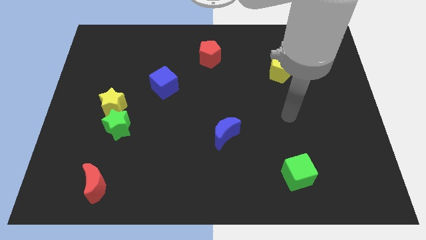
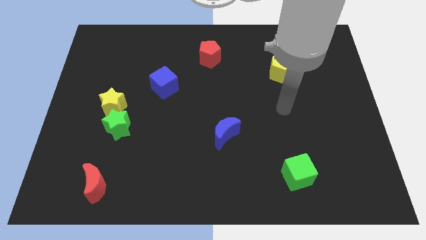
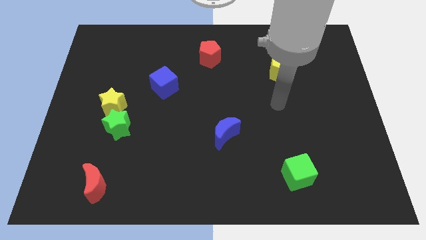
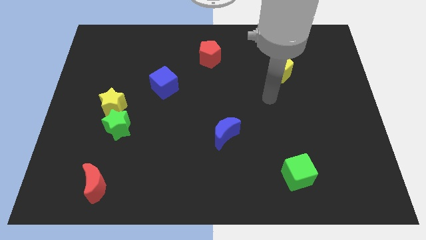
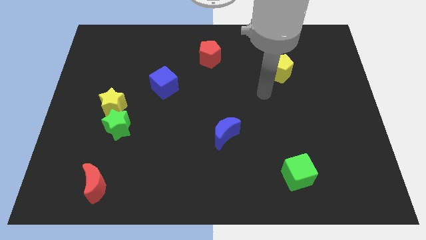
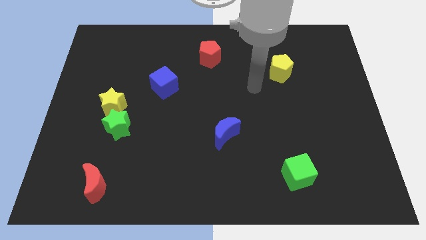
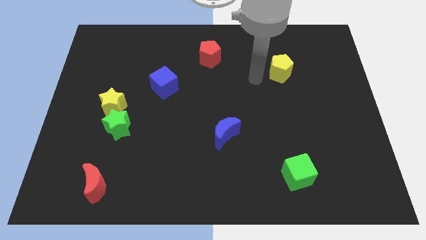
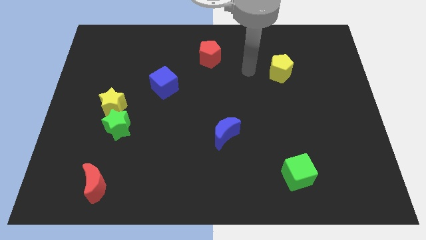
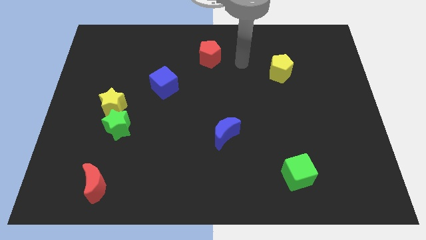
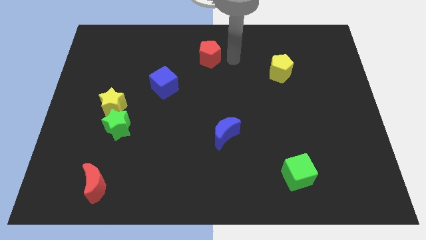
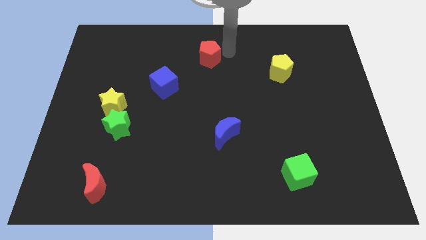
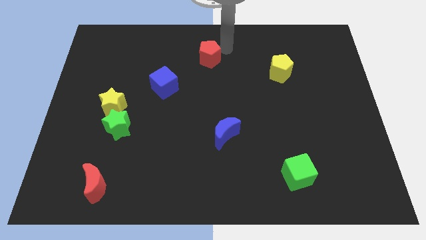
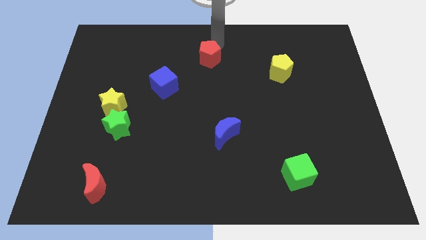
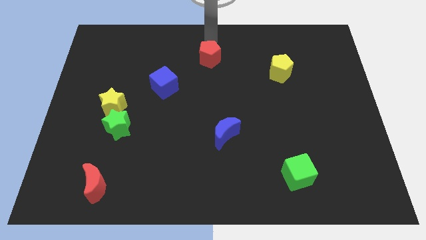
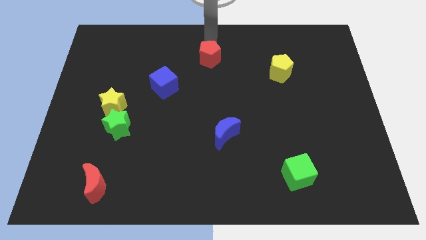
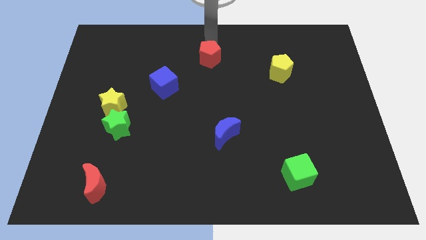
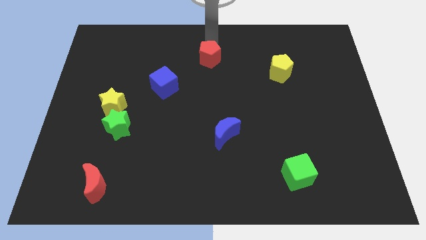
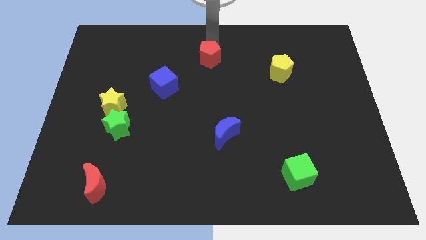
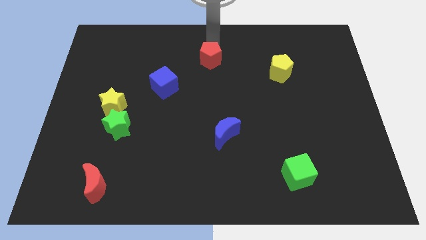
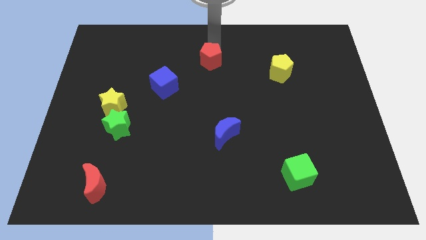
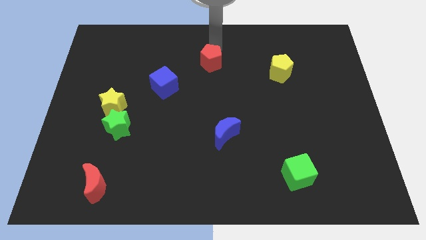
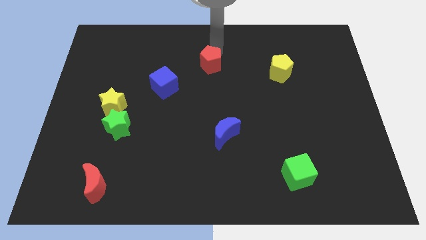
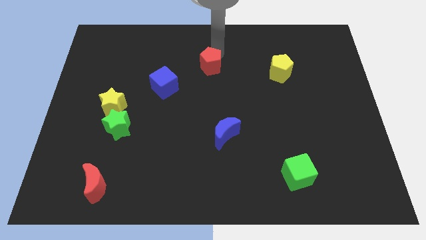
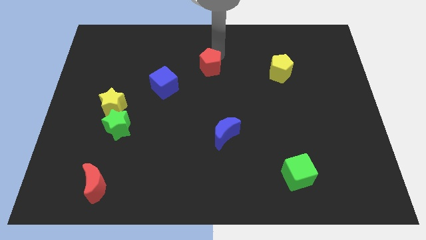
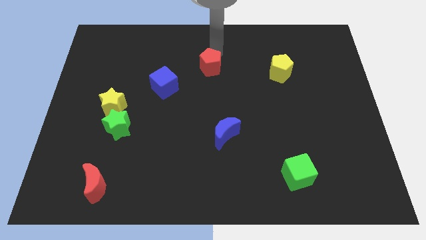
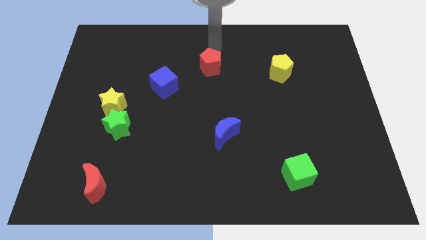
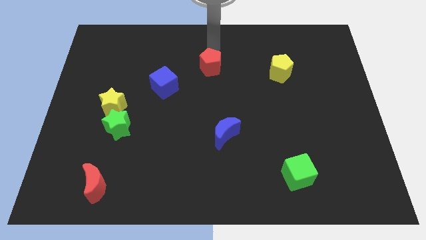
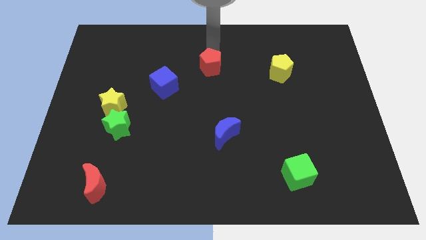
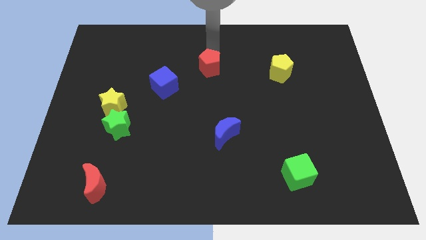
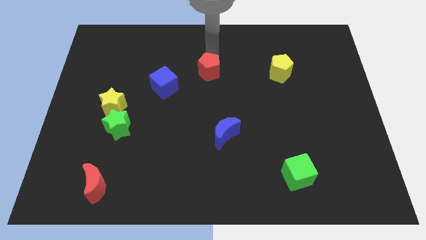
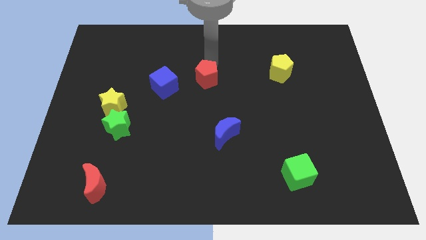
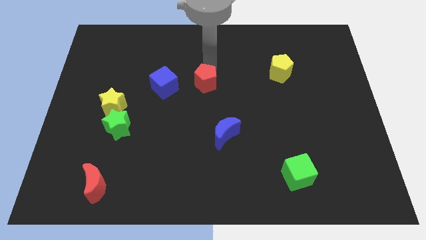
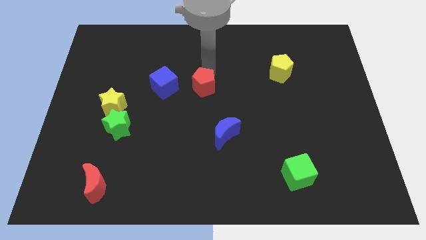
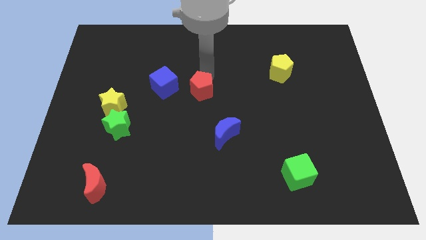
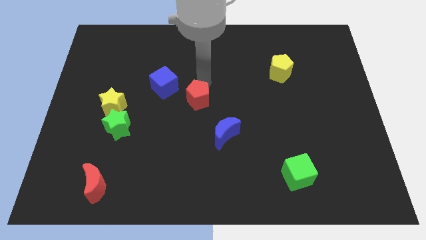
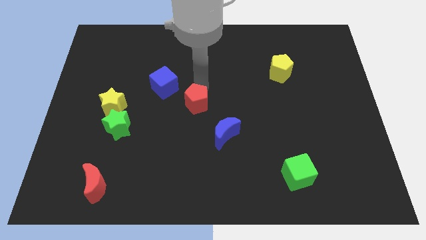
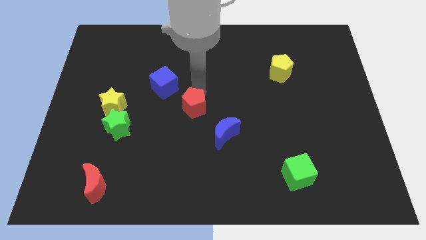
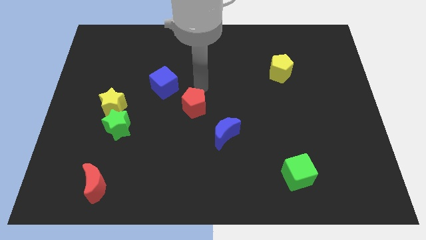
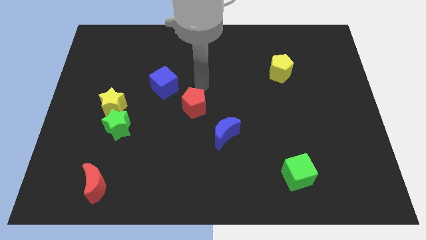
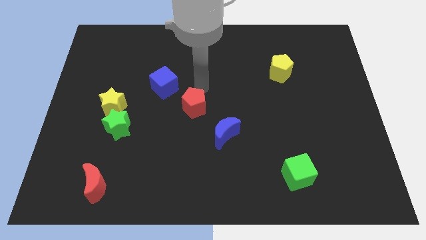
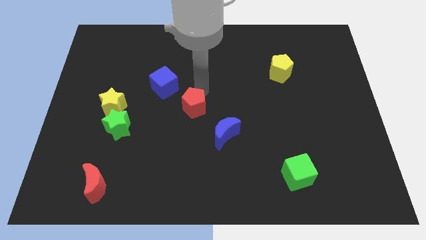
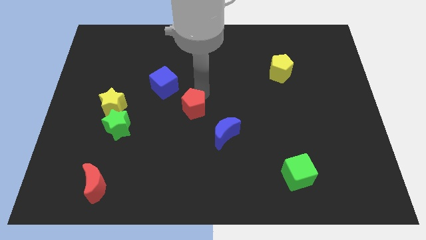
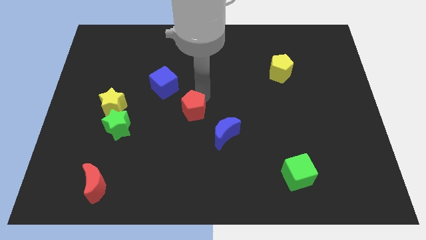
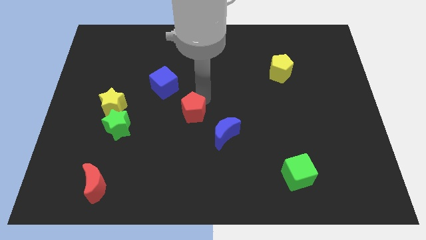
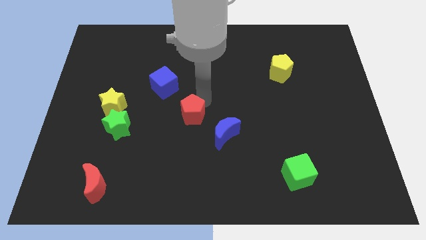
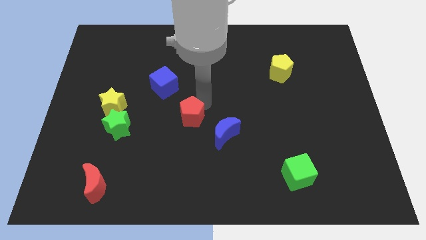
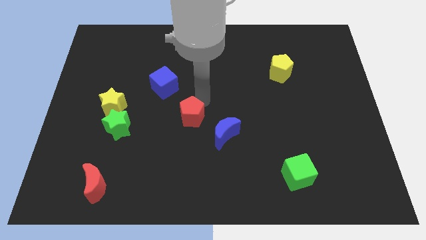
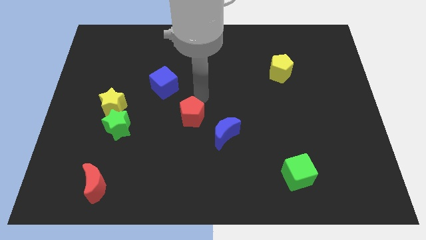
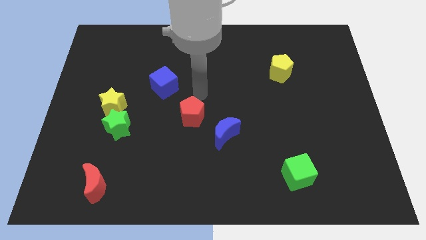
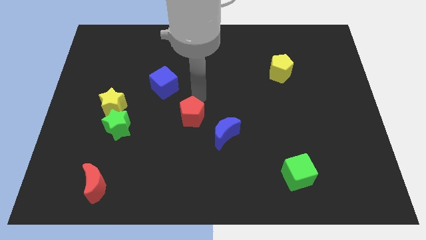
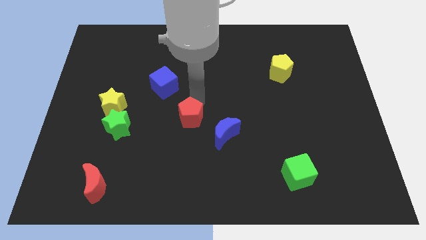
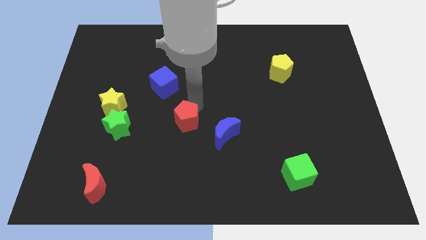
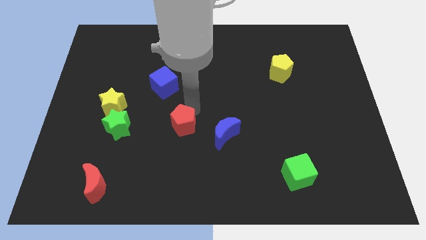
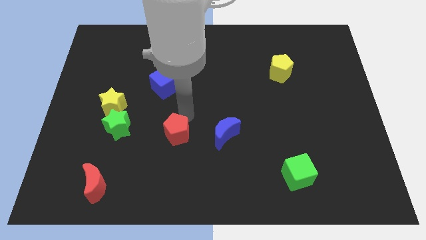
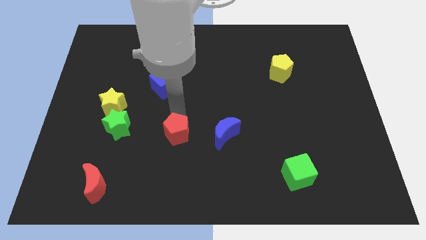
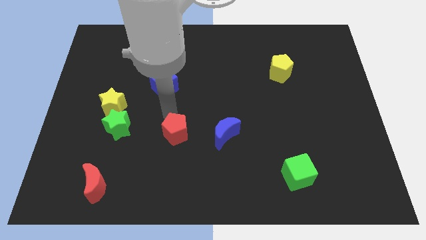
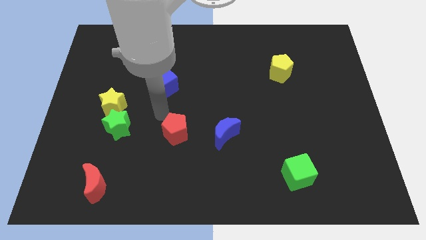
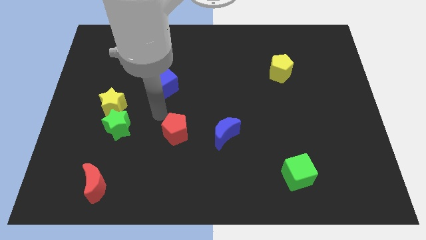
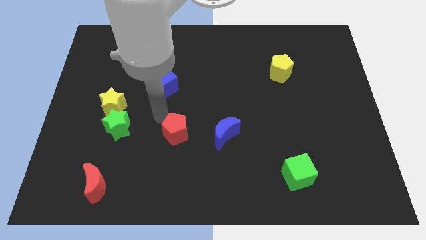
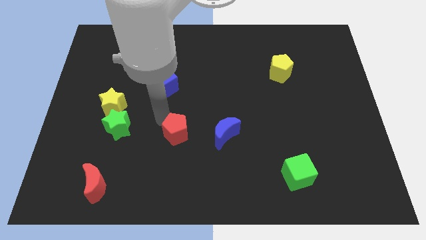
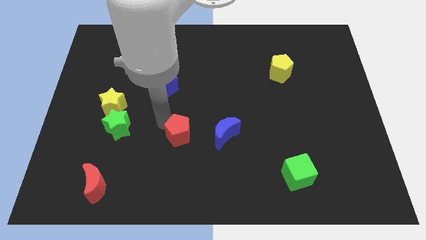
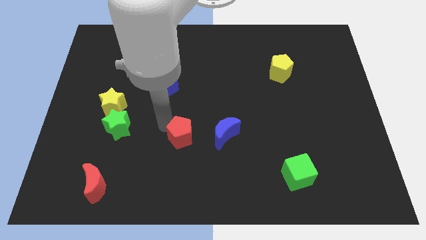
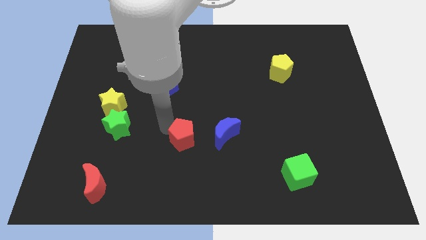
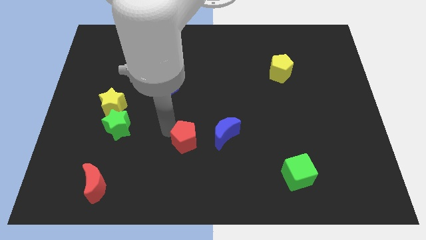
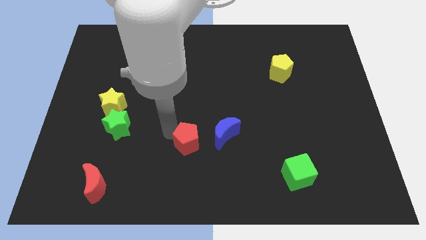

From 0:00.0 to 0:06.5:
put the red pentagon to the bottom left side of the blue moon

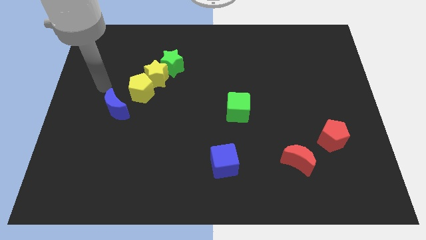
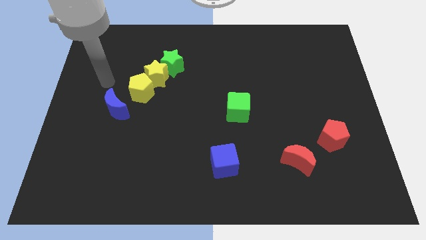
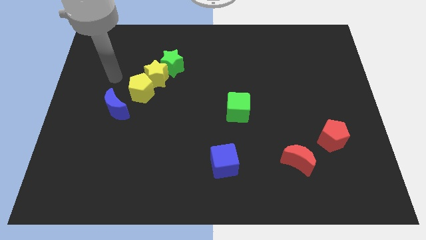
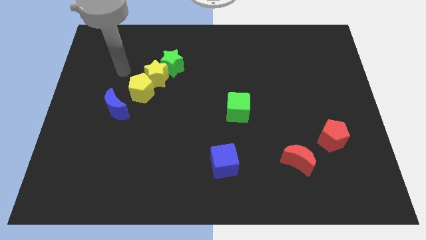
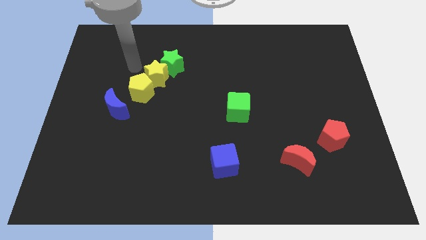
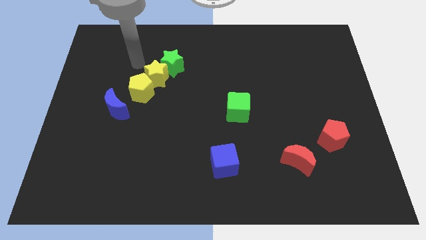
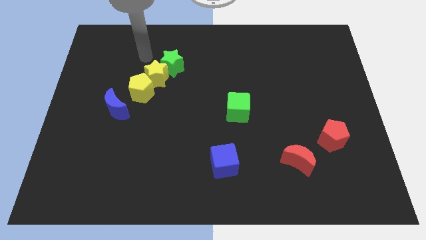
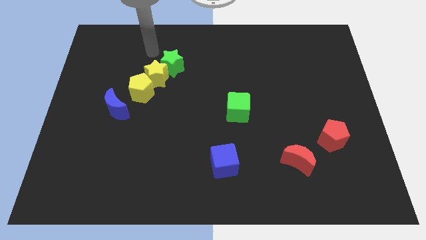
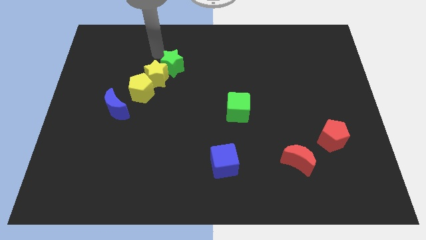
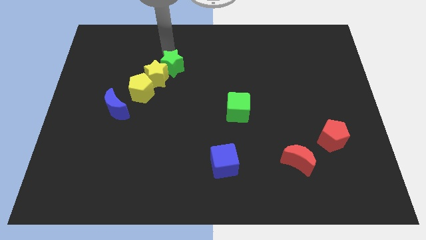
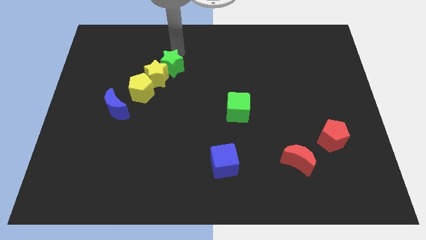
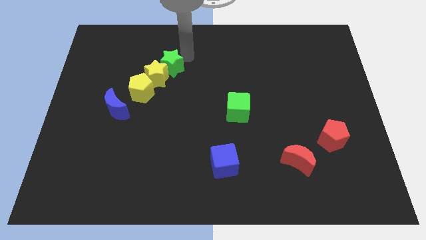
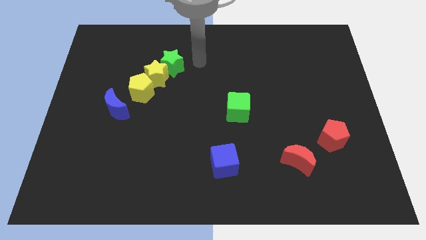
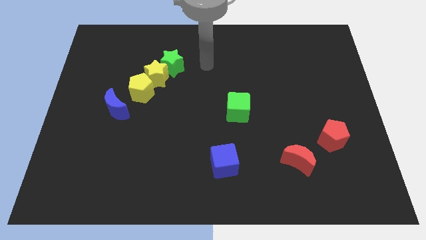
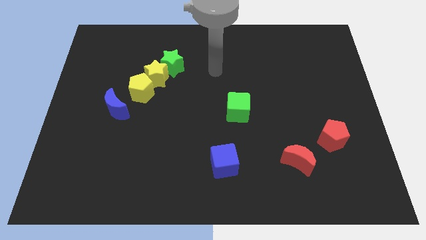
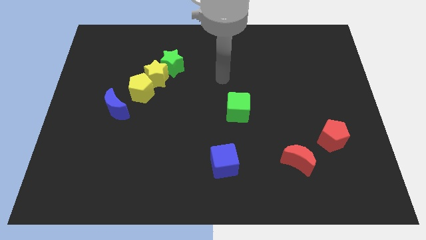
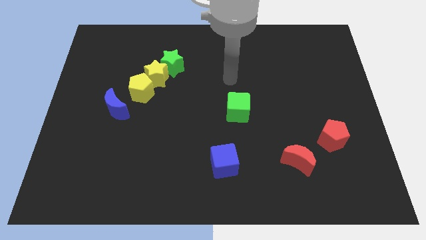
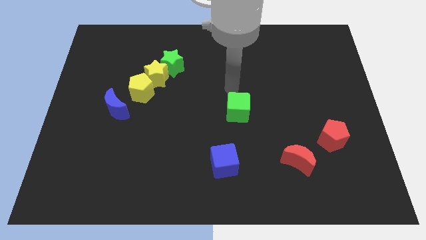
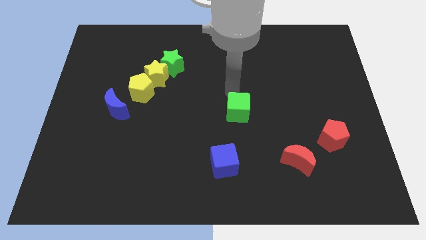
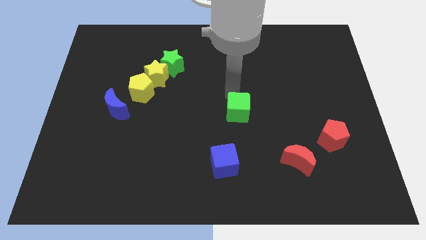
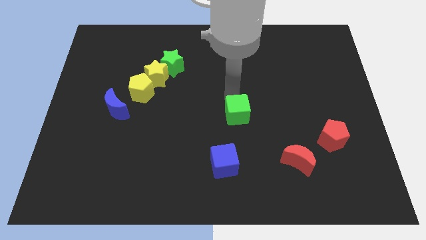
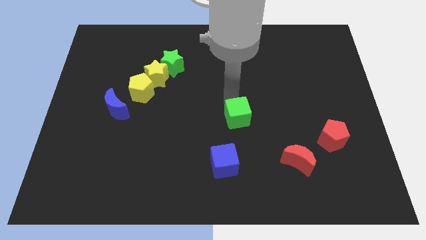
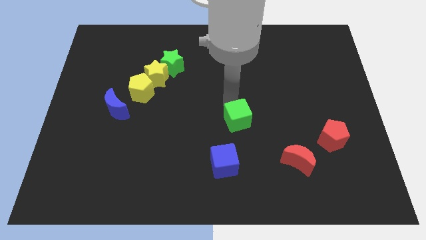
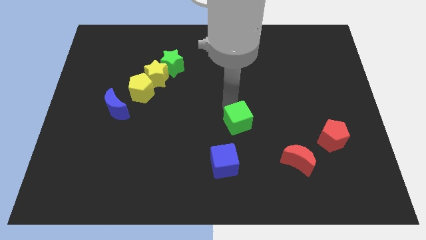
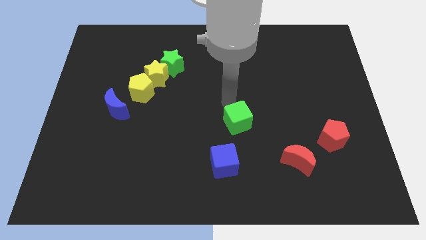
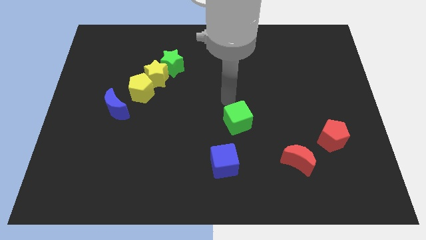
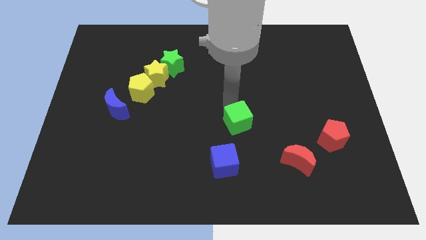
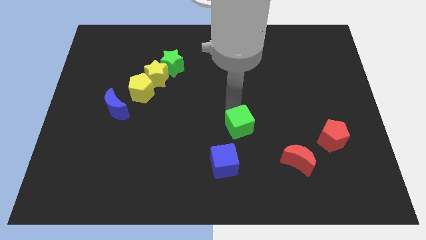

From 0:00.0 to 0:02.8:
move the green cube diagonally up and to the right of the blue cube
